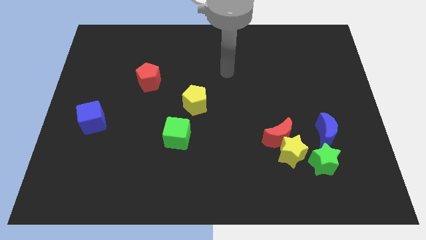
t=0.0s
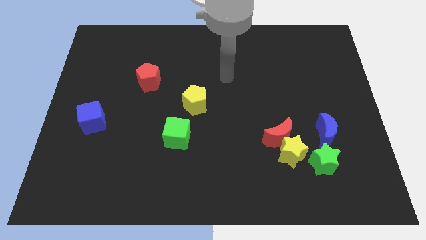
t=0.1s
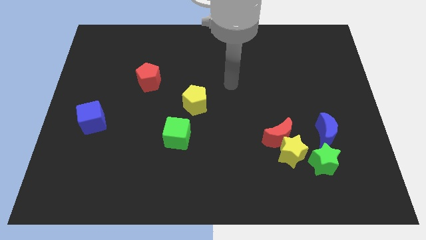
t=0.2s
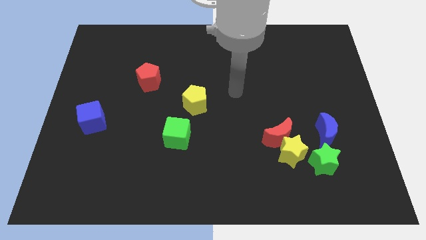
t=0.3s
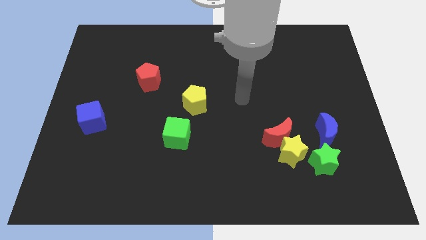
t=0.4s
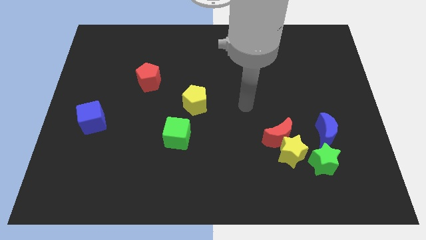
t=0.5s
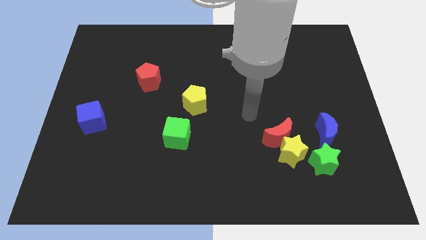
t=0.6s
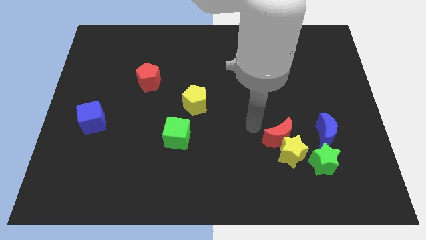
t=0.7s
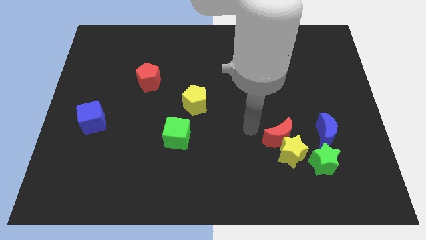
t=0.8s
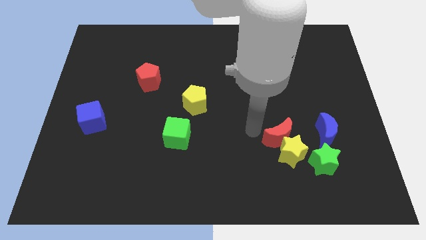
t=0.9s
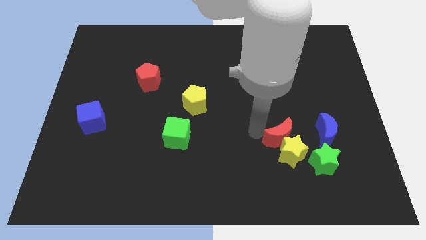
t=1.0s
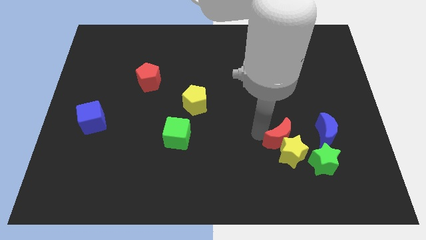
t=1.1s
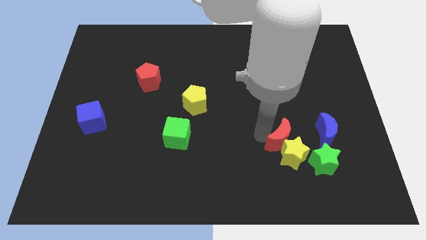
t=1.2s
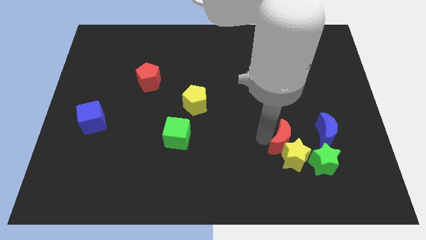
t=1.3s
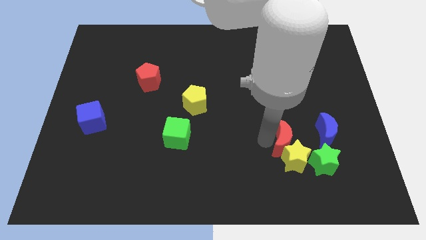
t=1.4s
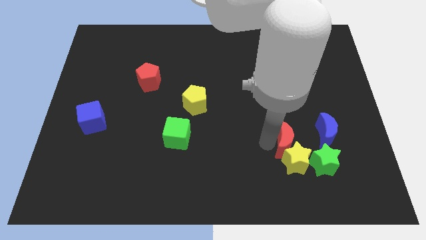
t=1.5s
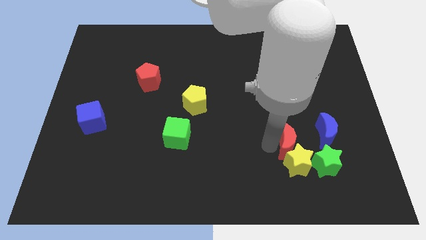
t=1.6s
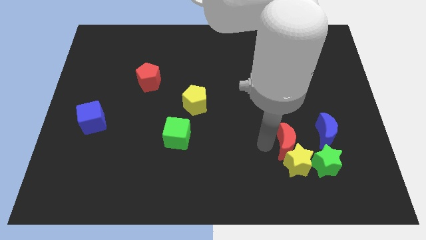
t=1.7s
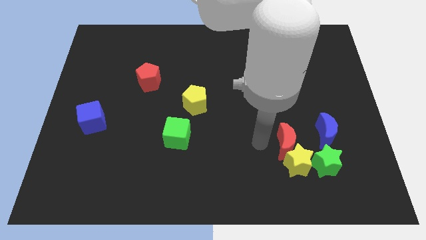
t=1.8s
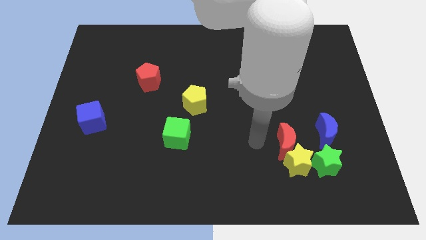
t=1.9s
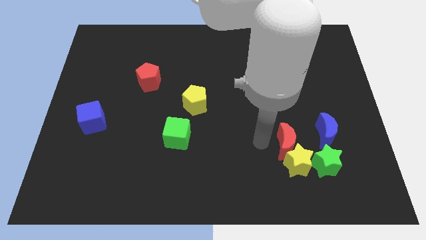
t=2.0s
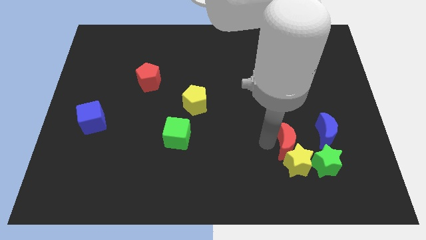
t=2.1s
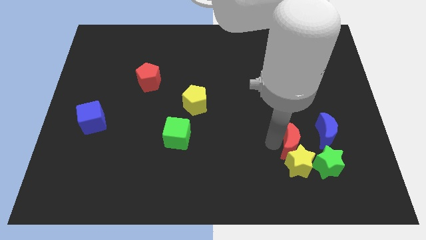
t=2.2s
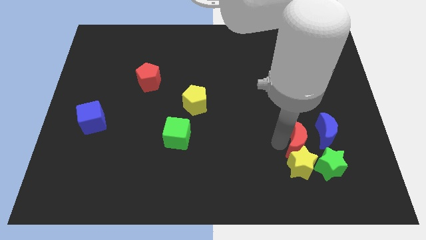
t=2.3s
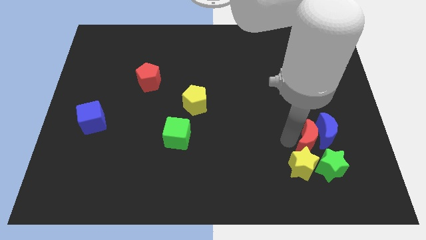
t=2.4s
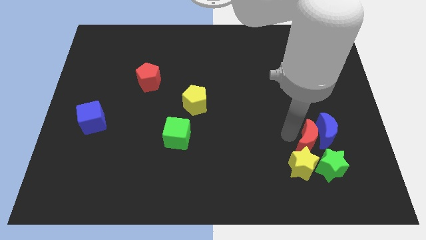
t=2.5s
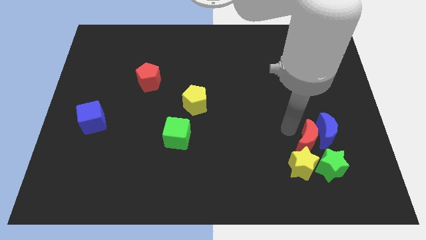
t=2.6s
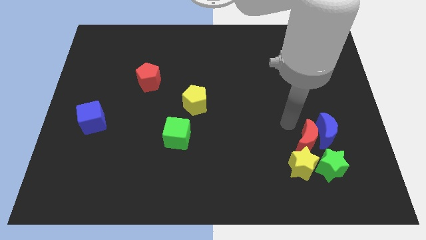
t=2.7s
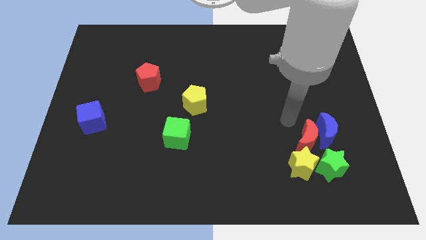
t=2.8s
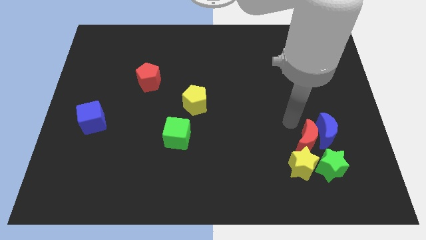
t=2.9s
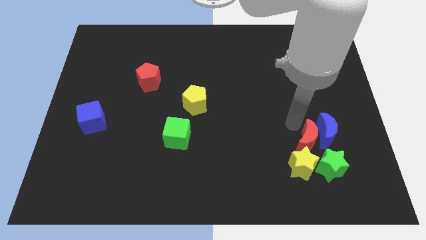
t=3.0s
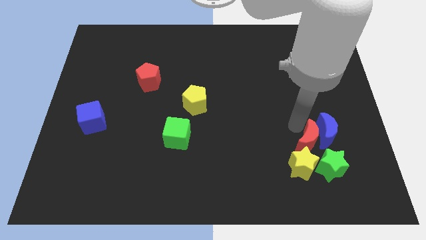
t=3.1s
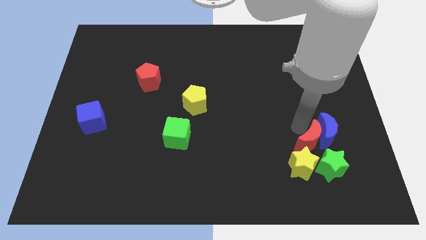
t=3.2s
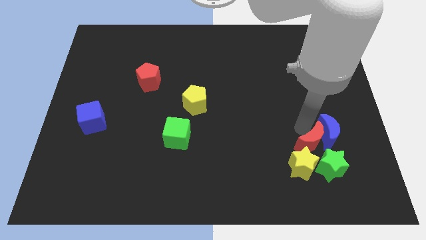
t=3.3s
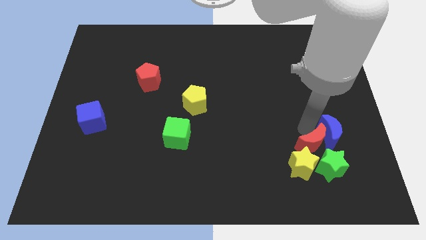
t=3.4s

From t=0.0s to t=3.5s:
push the red moon to the green star

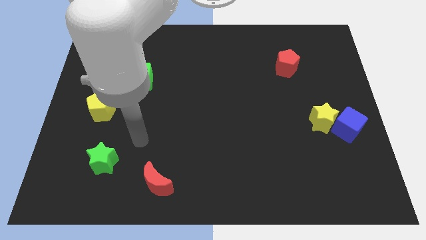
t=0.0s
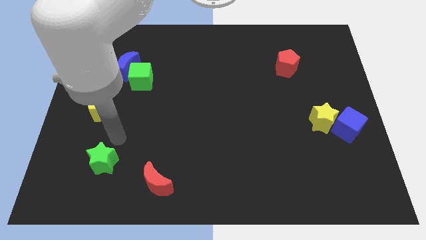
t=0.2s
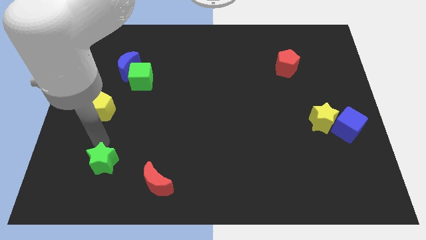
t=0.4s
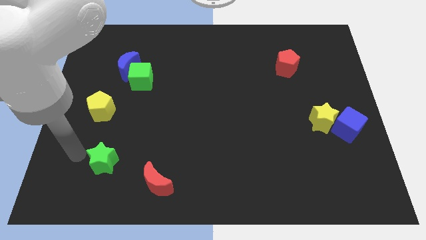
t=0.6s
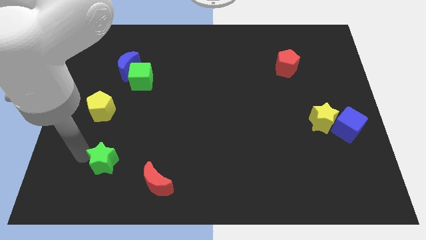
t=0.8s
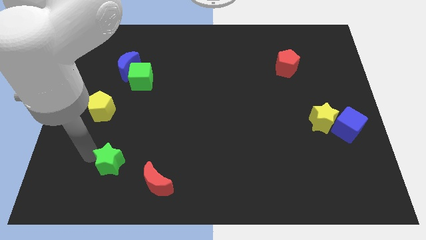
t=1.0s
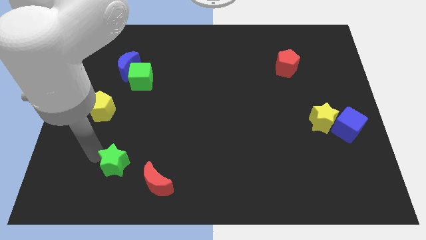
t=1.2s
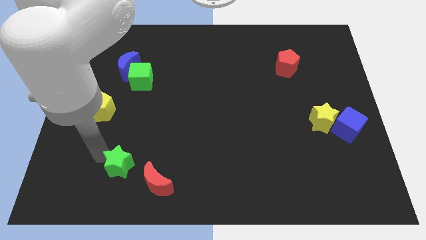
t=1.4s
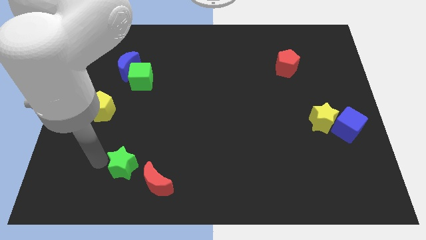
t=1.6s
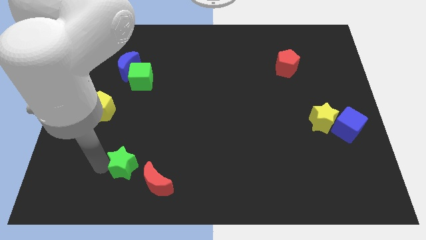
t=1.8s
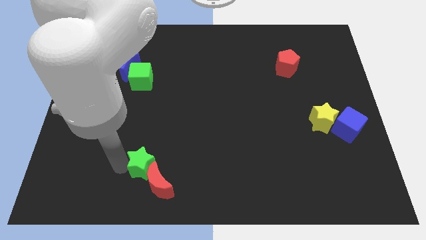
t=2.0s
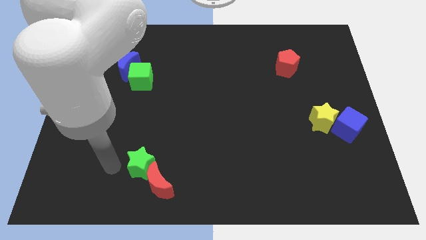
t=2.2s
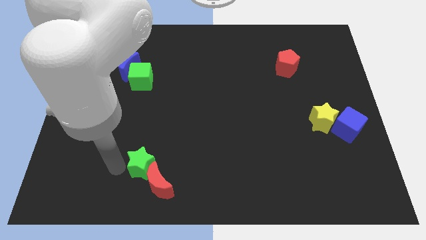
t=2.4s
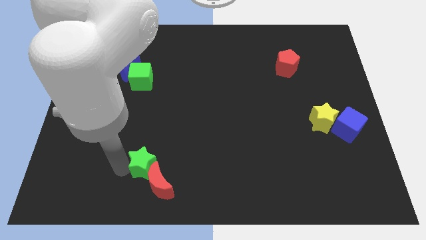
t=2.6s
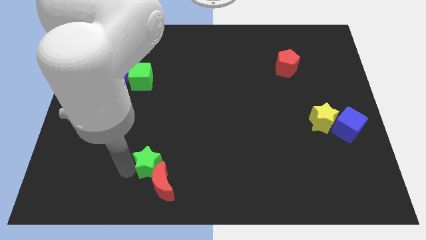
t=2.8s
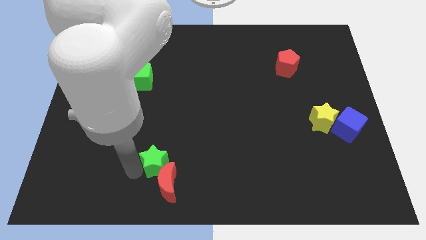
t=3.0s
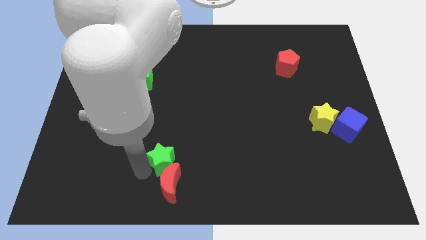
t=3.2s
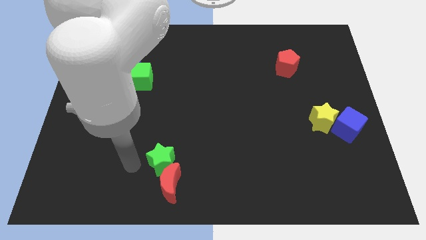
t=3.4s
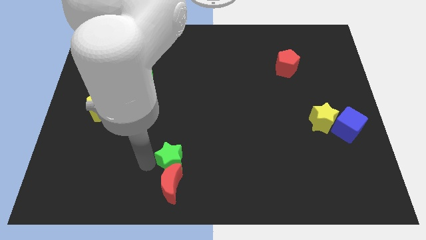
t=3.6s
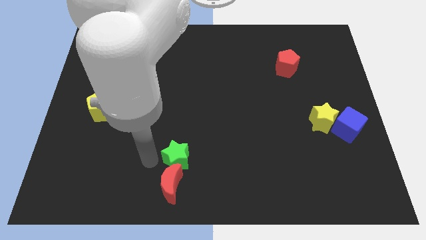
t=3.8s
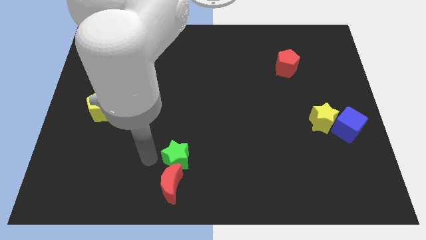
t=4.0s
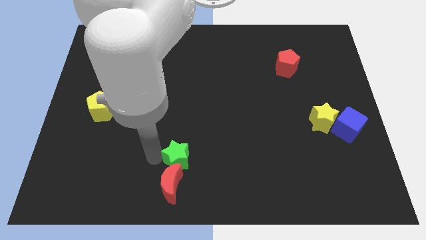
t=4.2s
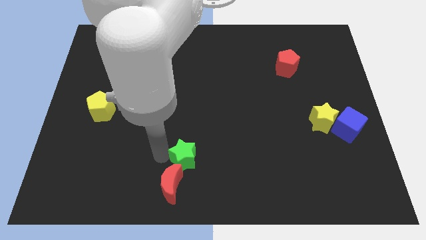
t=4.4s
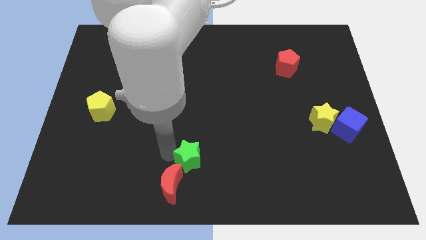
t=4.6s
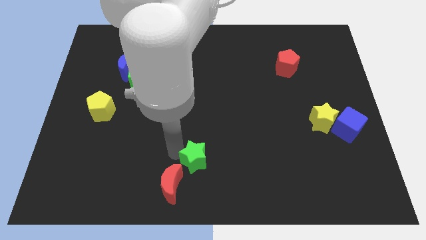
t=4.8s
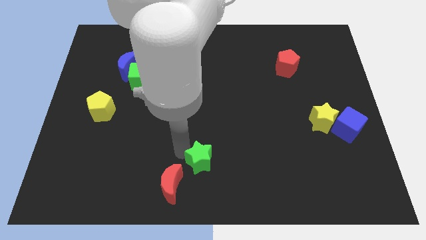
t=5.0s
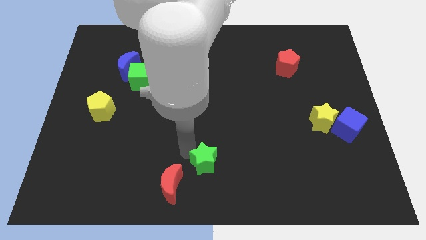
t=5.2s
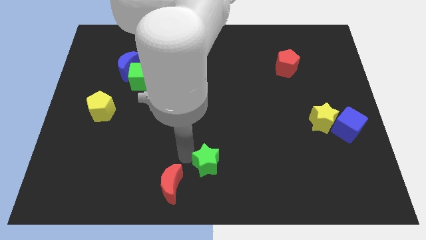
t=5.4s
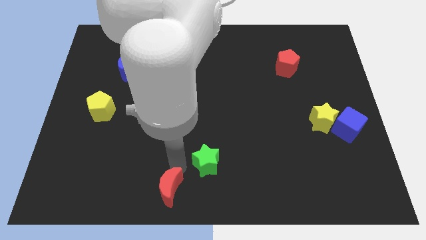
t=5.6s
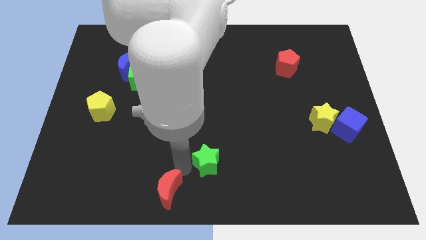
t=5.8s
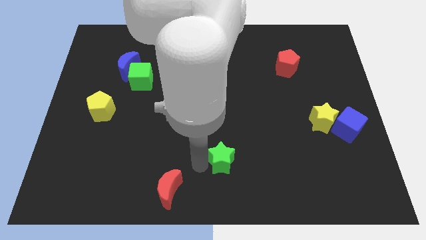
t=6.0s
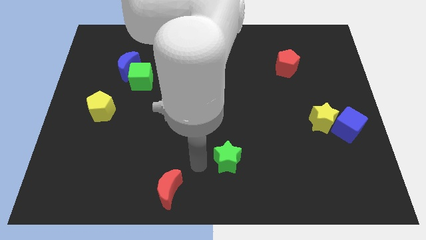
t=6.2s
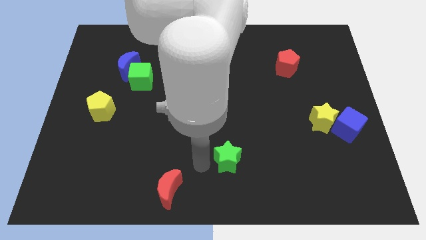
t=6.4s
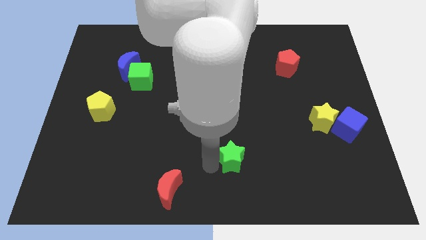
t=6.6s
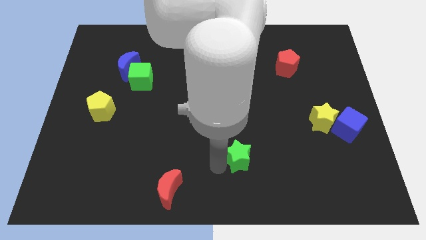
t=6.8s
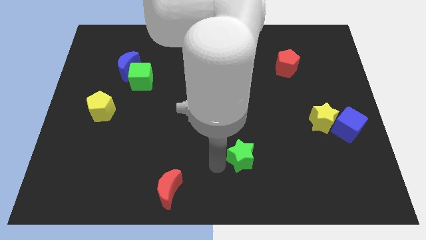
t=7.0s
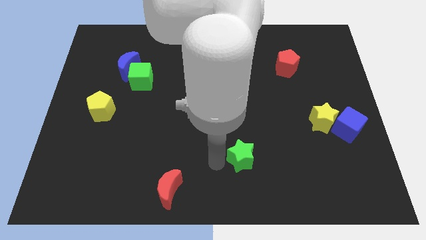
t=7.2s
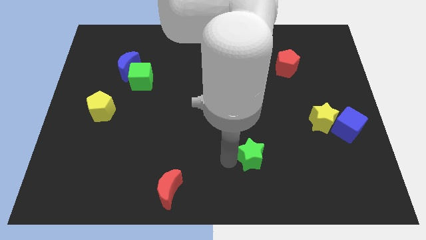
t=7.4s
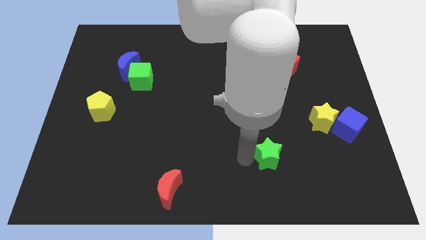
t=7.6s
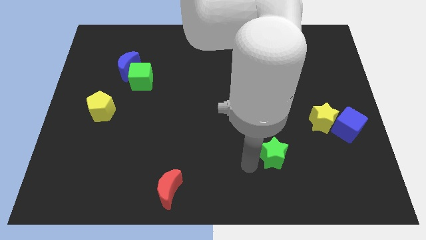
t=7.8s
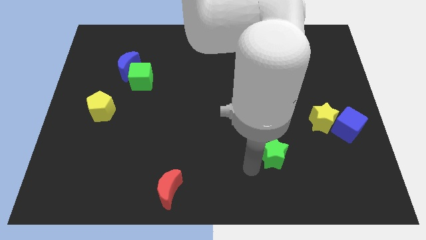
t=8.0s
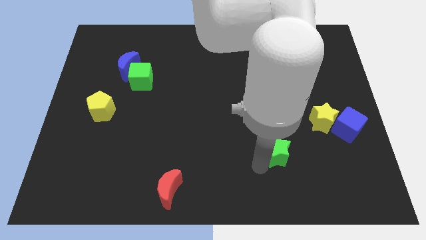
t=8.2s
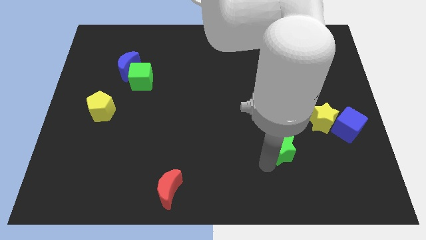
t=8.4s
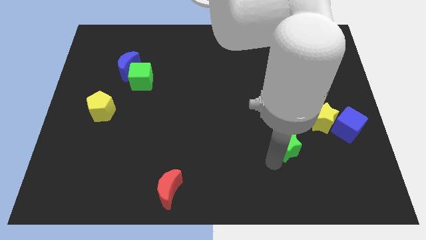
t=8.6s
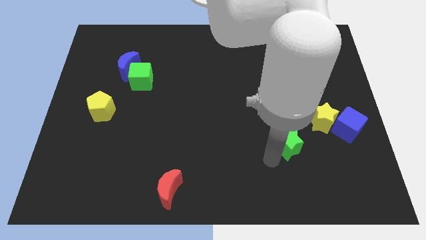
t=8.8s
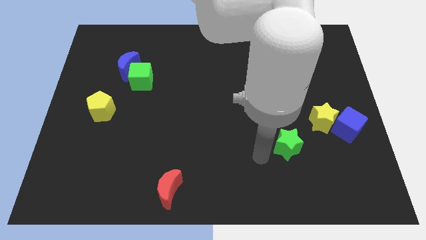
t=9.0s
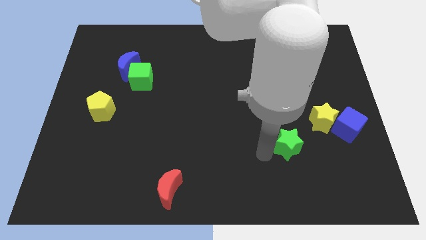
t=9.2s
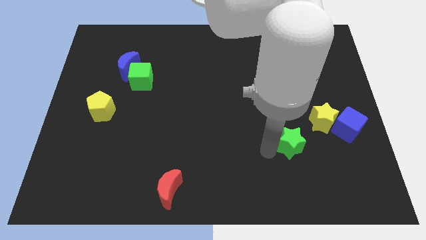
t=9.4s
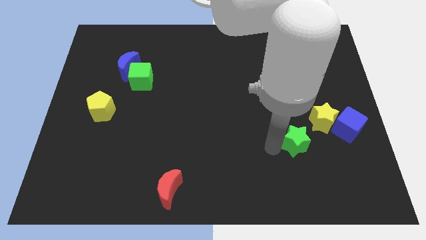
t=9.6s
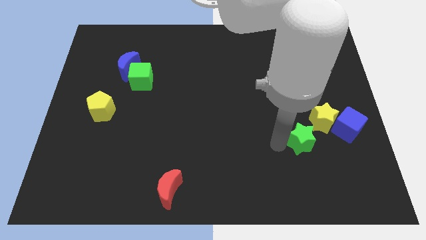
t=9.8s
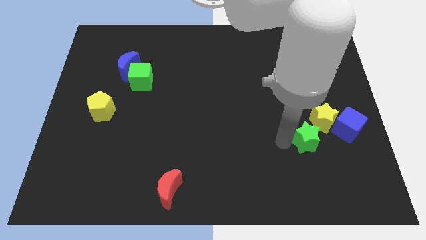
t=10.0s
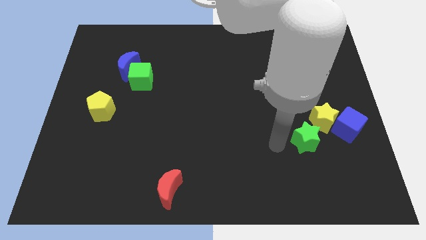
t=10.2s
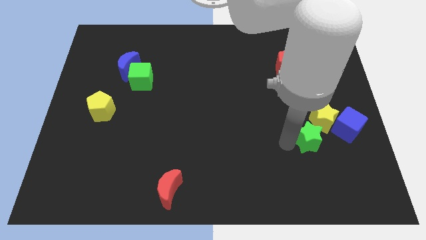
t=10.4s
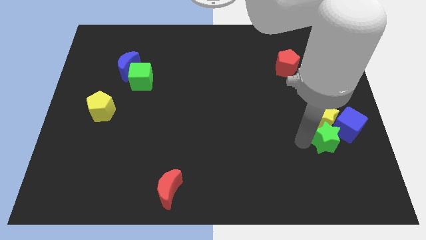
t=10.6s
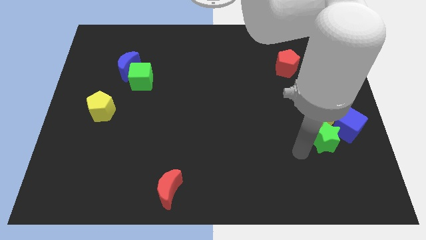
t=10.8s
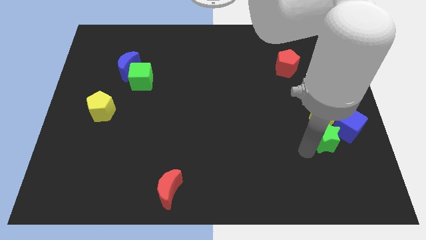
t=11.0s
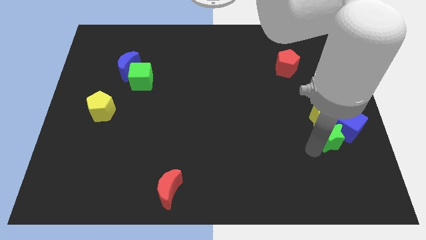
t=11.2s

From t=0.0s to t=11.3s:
push the green star close to the blue cube
